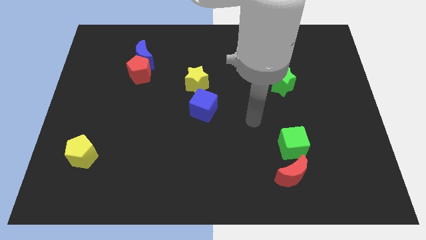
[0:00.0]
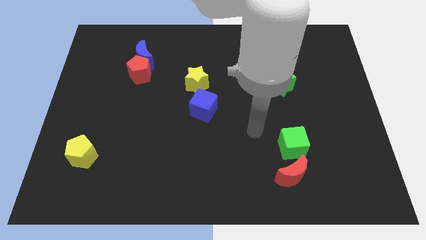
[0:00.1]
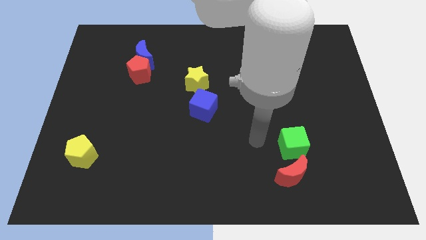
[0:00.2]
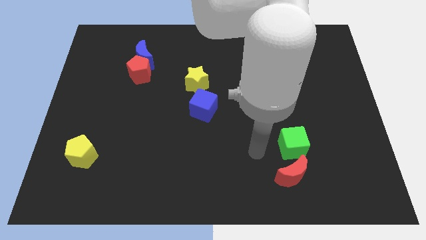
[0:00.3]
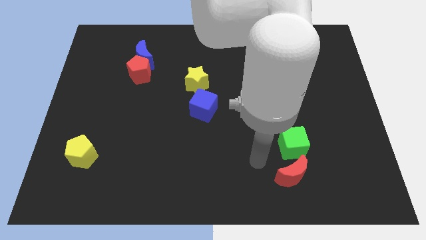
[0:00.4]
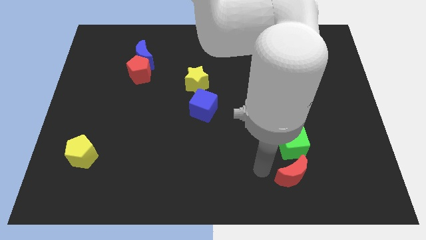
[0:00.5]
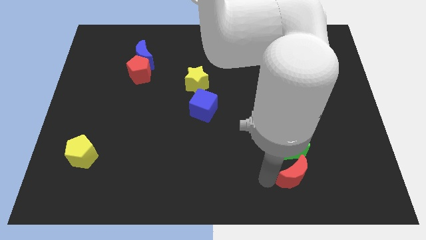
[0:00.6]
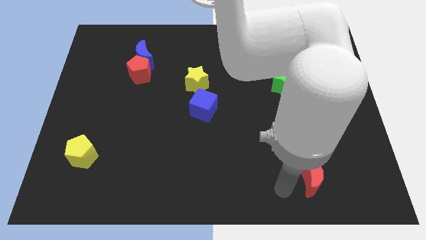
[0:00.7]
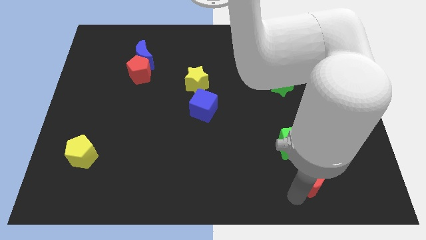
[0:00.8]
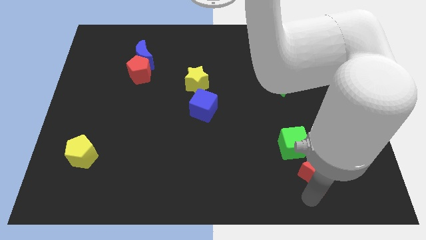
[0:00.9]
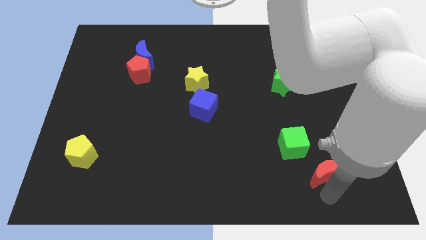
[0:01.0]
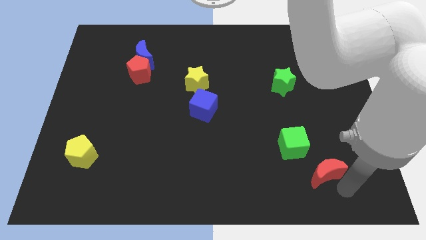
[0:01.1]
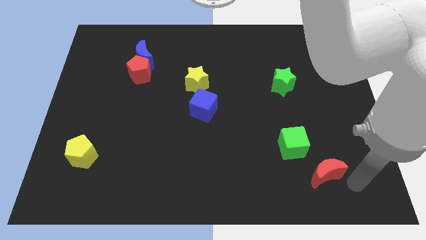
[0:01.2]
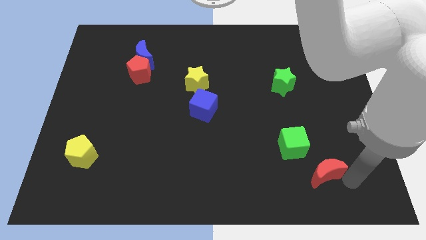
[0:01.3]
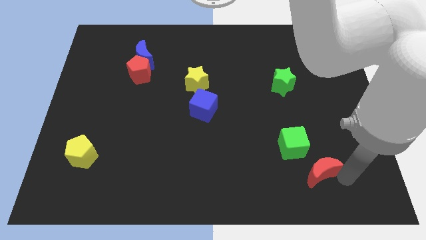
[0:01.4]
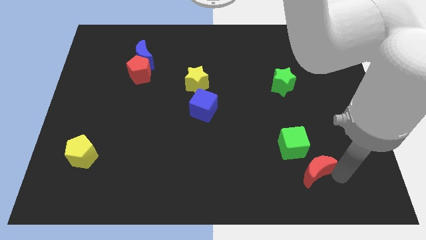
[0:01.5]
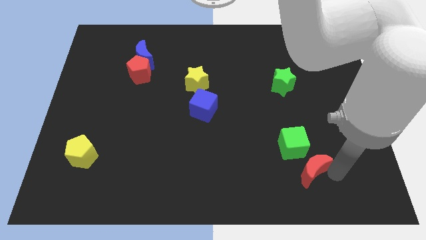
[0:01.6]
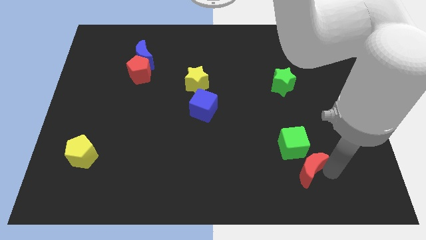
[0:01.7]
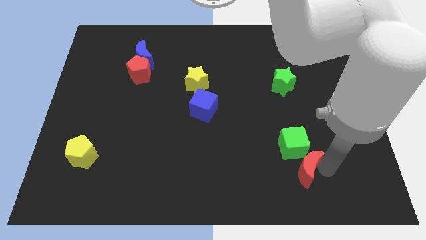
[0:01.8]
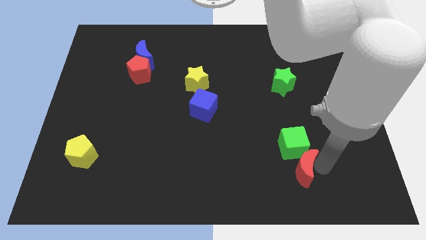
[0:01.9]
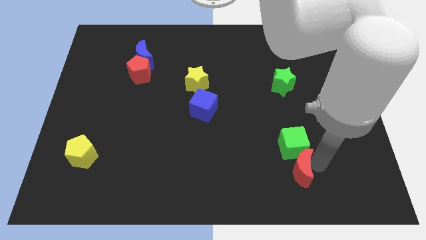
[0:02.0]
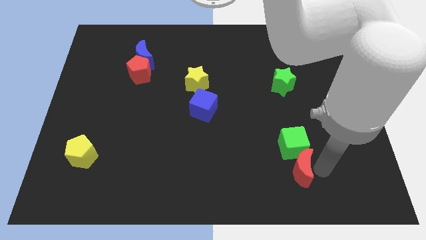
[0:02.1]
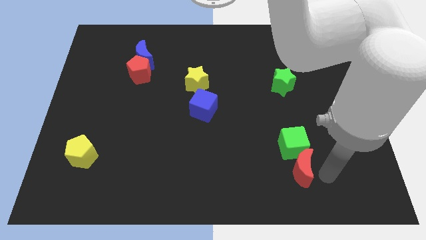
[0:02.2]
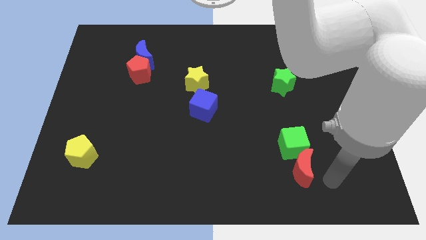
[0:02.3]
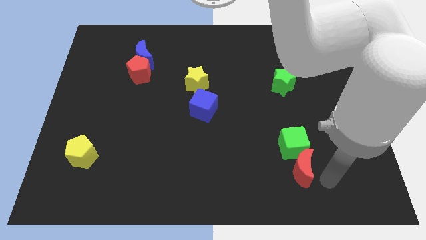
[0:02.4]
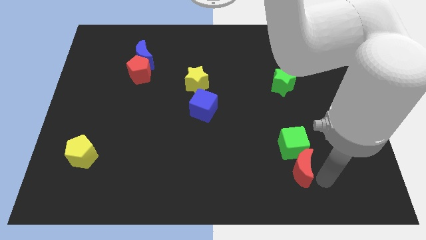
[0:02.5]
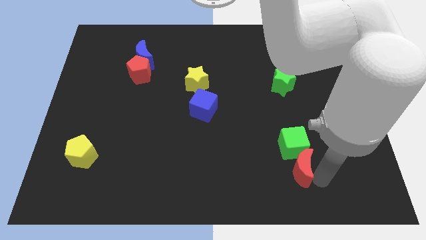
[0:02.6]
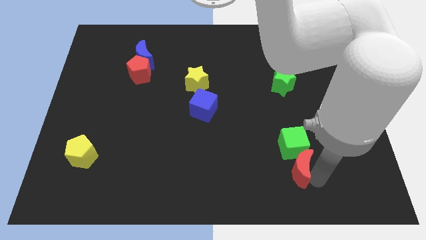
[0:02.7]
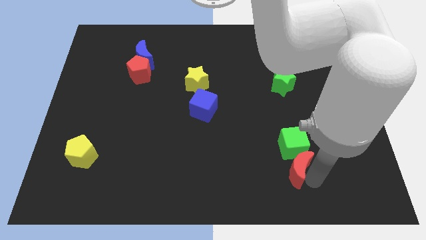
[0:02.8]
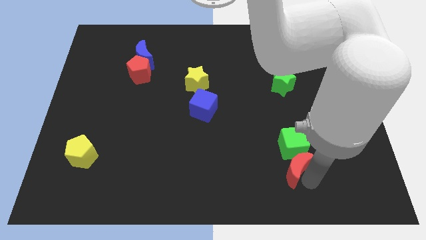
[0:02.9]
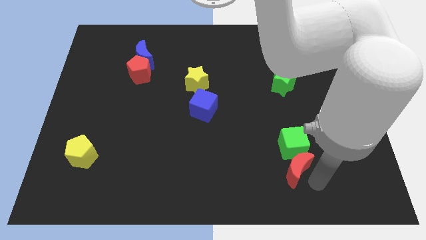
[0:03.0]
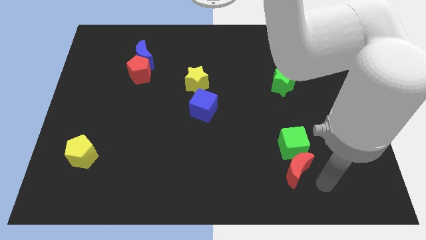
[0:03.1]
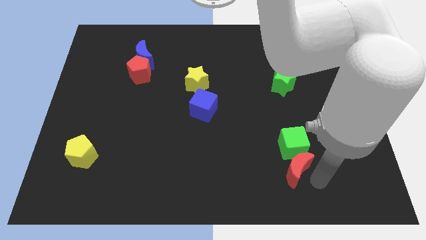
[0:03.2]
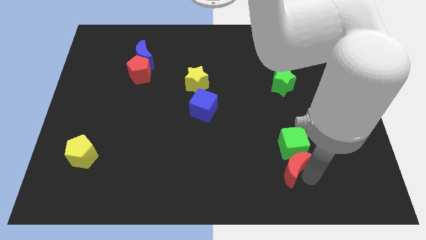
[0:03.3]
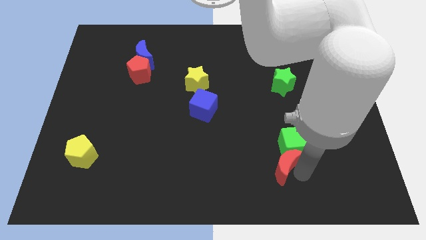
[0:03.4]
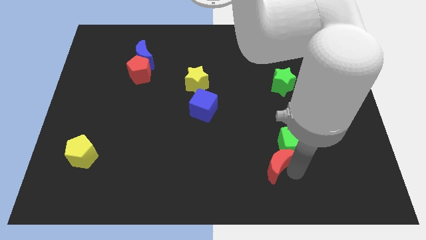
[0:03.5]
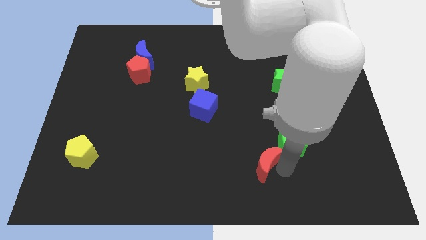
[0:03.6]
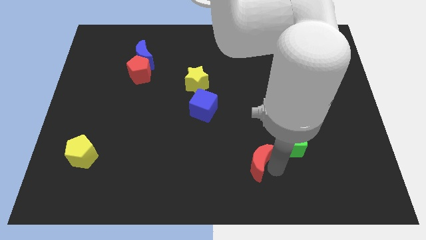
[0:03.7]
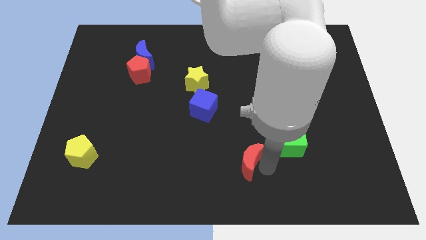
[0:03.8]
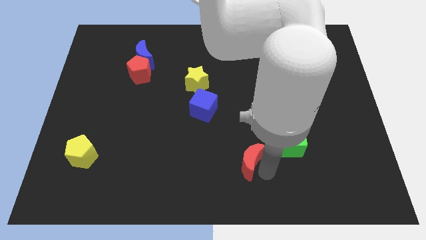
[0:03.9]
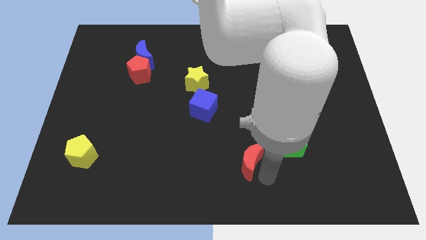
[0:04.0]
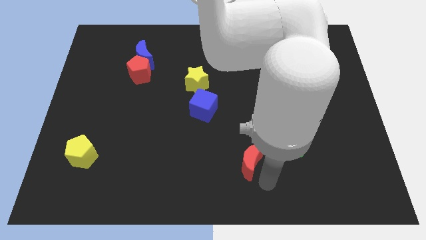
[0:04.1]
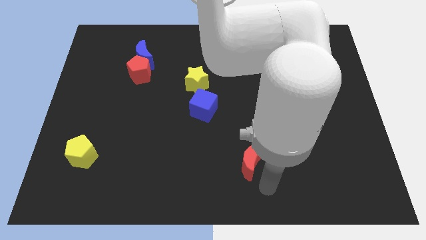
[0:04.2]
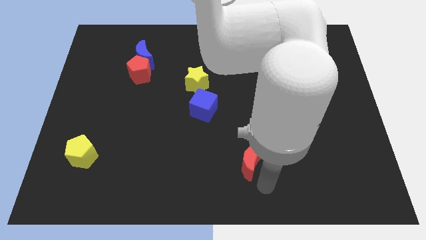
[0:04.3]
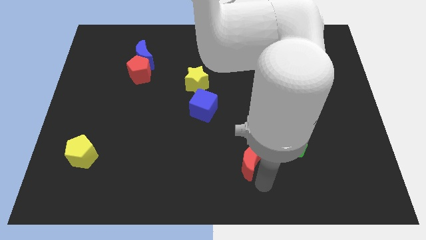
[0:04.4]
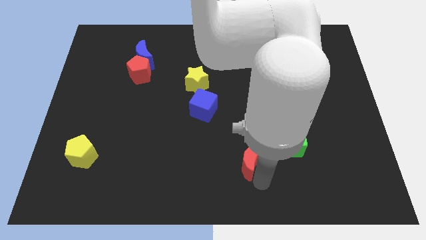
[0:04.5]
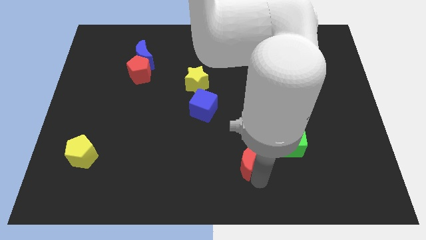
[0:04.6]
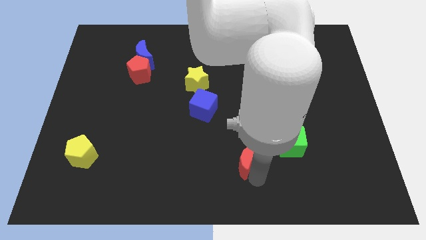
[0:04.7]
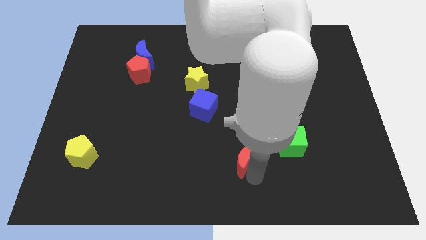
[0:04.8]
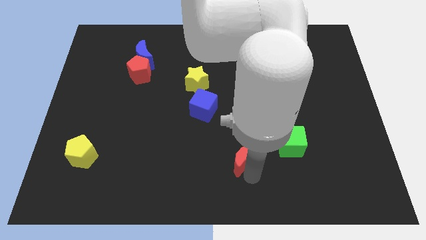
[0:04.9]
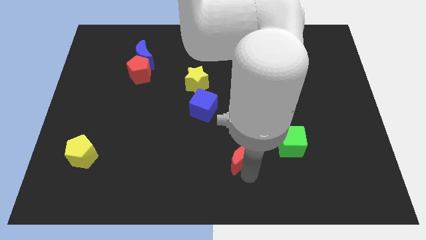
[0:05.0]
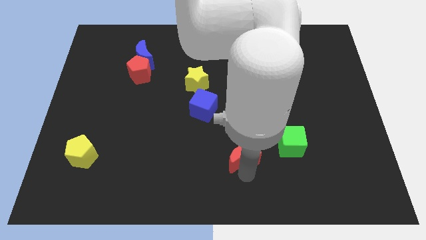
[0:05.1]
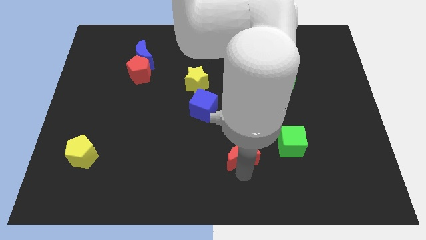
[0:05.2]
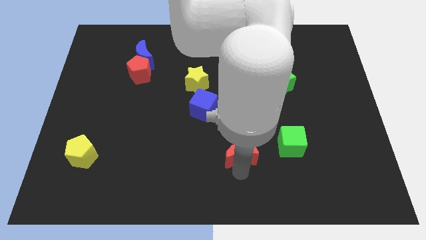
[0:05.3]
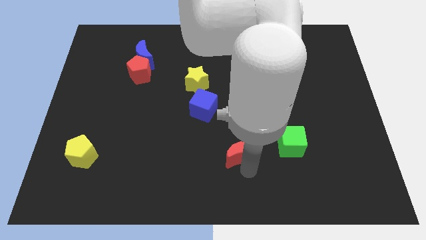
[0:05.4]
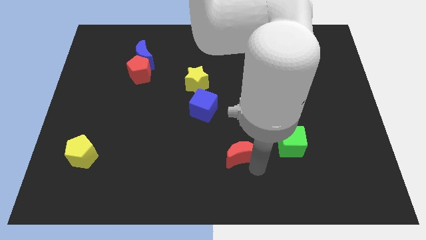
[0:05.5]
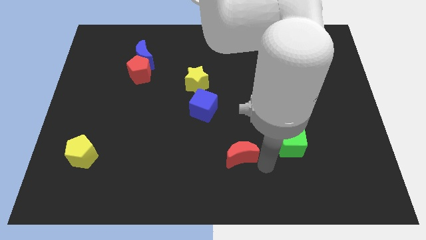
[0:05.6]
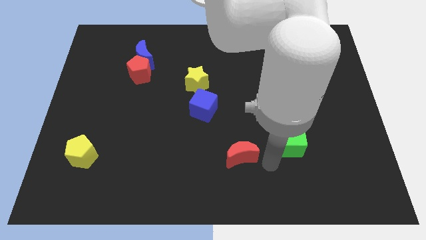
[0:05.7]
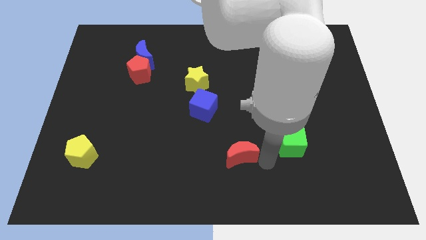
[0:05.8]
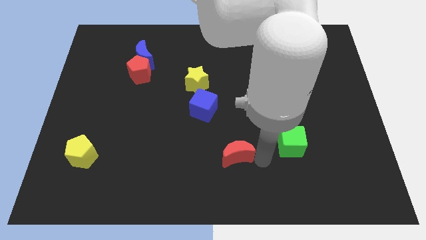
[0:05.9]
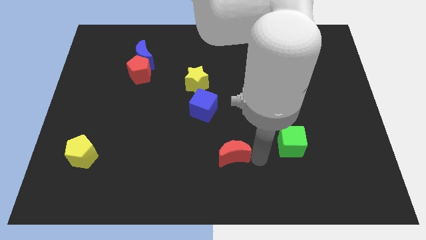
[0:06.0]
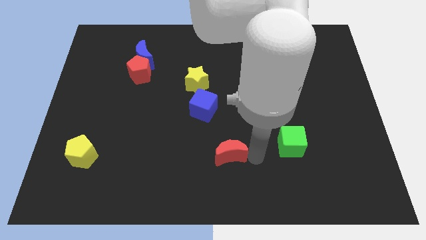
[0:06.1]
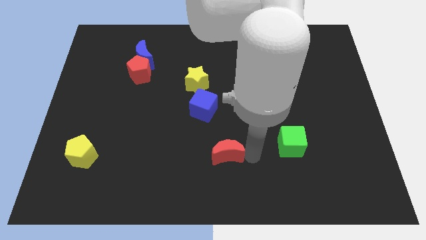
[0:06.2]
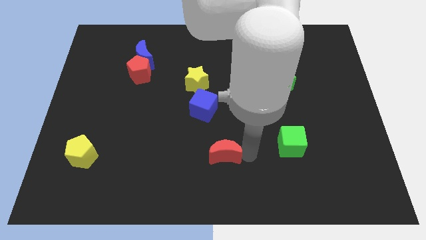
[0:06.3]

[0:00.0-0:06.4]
slide the red moon to the bottom of the blue cube

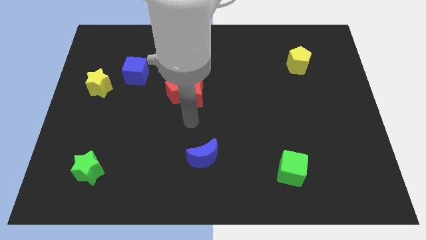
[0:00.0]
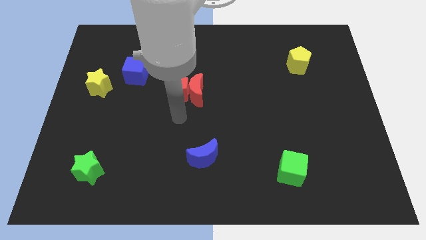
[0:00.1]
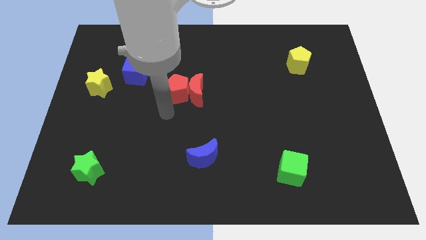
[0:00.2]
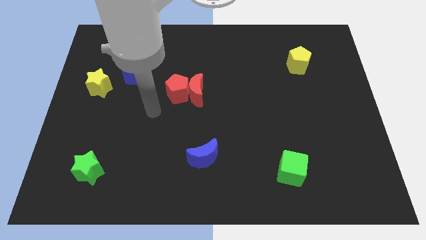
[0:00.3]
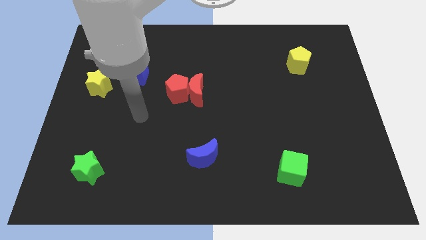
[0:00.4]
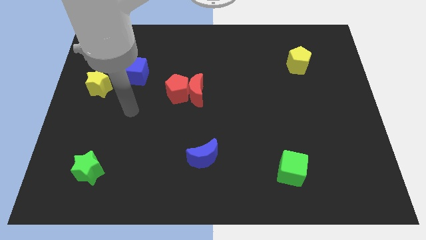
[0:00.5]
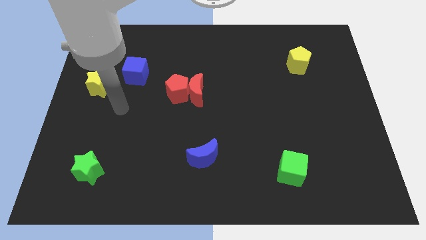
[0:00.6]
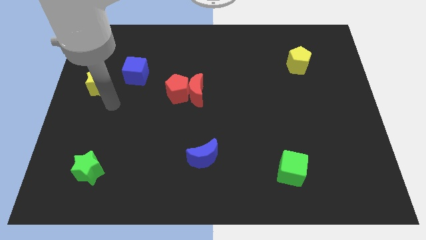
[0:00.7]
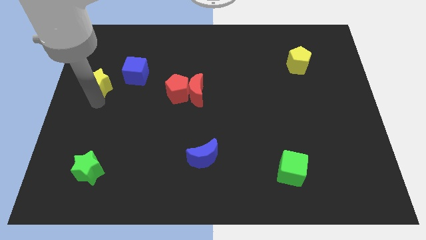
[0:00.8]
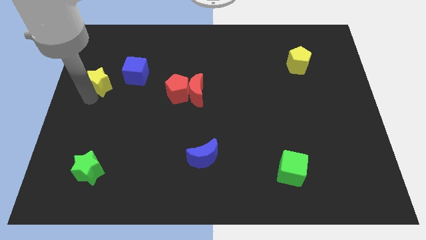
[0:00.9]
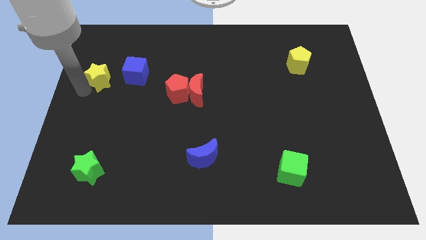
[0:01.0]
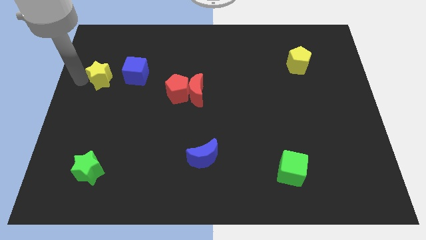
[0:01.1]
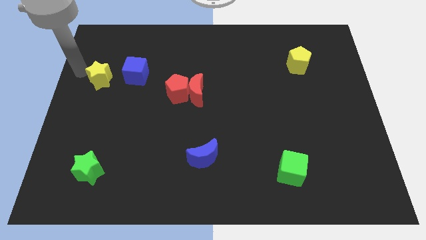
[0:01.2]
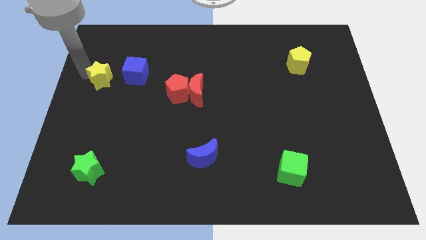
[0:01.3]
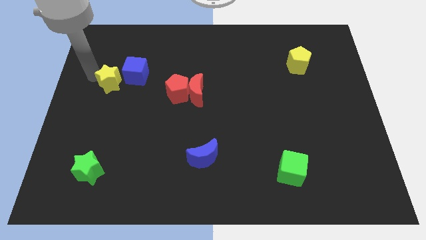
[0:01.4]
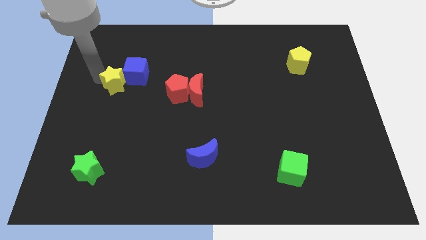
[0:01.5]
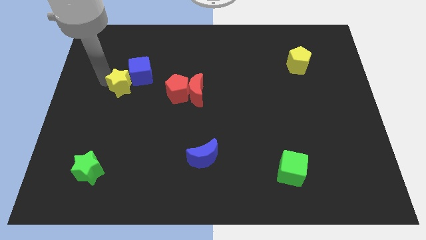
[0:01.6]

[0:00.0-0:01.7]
push the yellow star left of the red pentagon

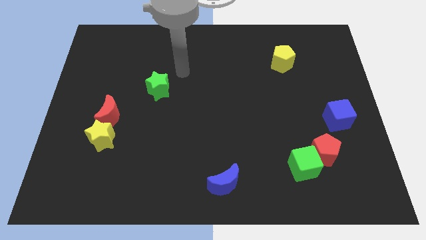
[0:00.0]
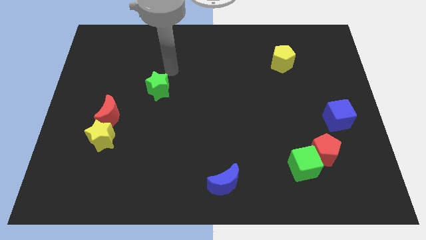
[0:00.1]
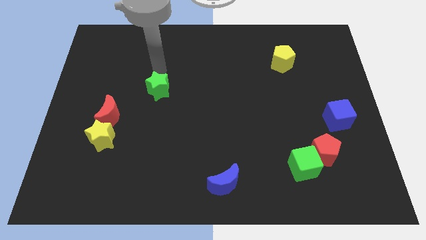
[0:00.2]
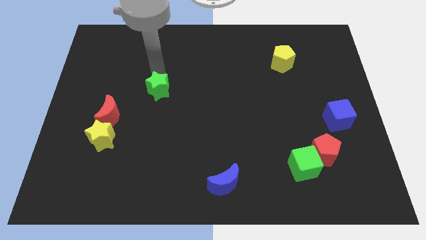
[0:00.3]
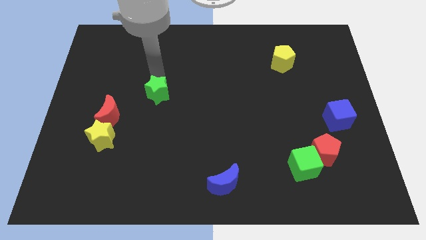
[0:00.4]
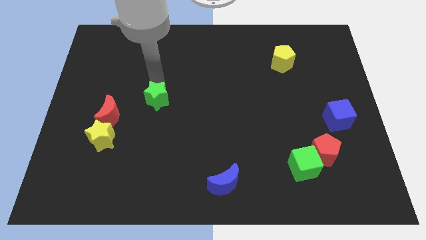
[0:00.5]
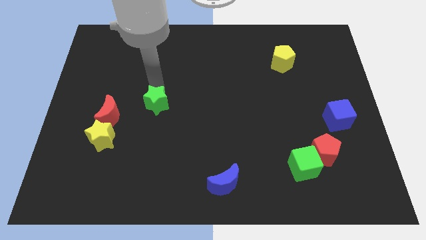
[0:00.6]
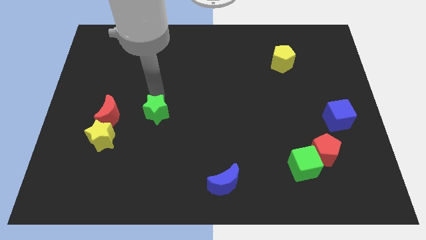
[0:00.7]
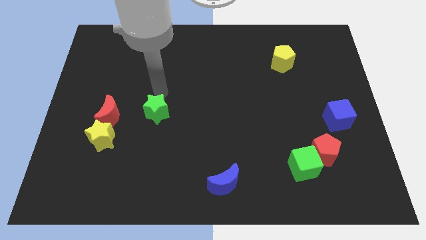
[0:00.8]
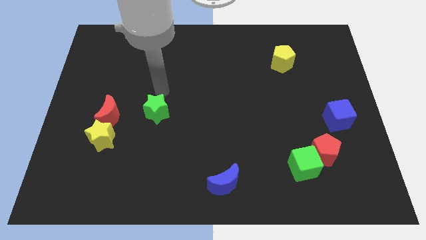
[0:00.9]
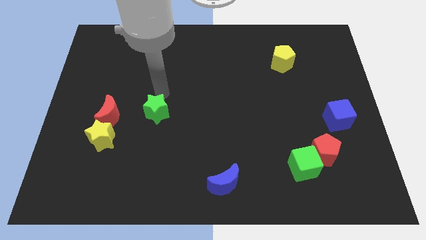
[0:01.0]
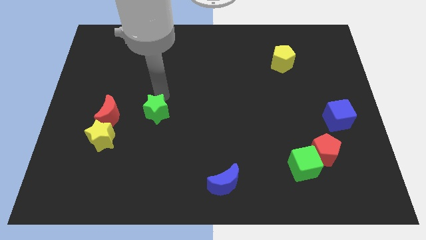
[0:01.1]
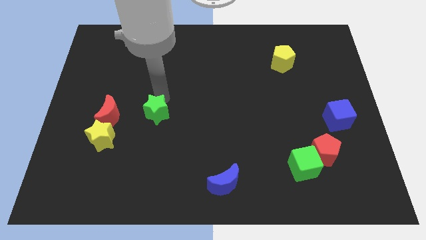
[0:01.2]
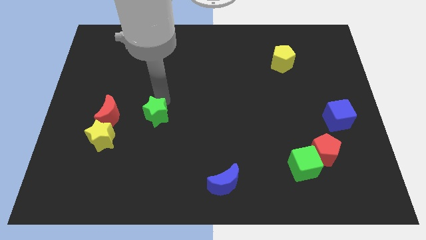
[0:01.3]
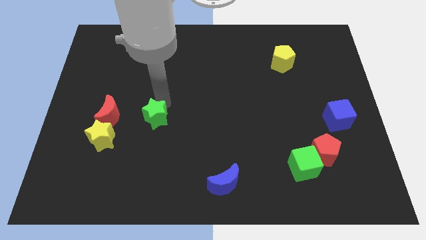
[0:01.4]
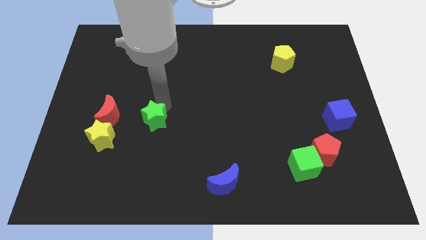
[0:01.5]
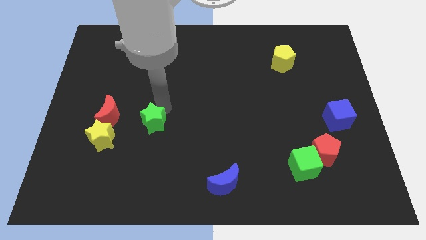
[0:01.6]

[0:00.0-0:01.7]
push the green star to the right of the yellow star
